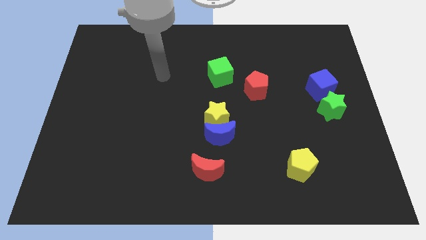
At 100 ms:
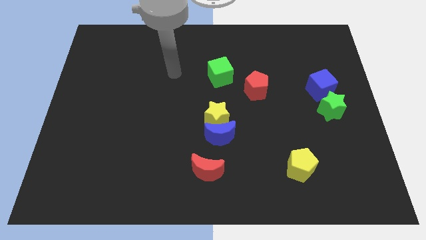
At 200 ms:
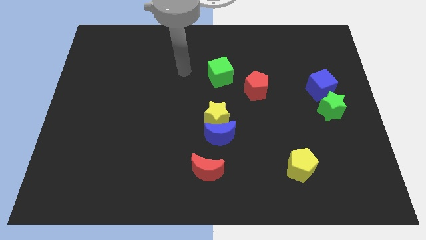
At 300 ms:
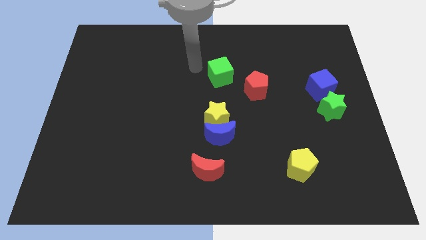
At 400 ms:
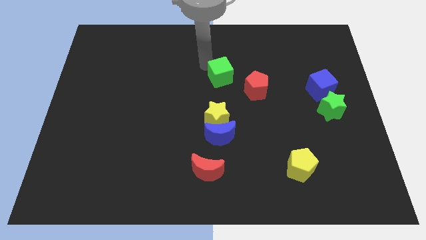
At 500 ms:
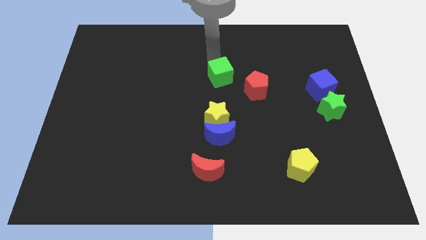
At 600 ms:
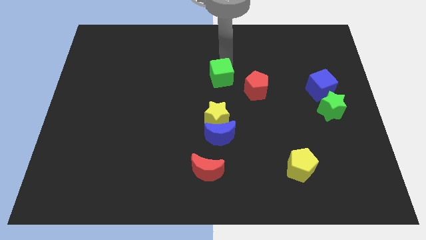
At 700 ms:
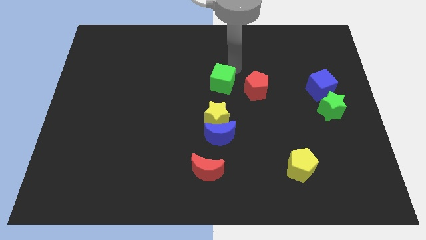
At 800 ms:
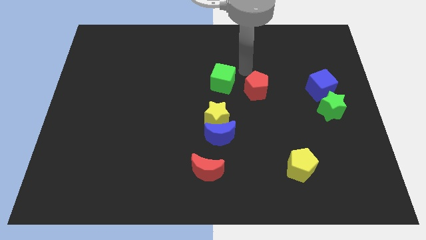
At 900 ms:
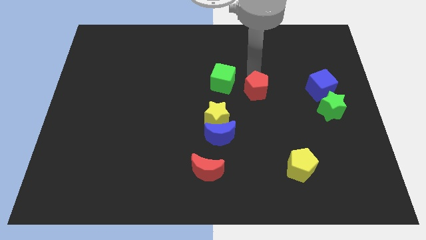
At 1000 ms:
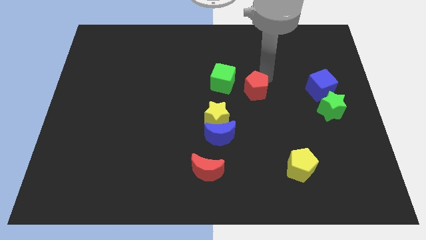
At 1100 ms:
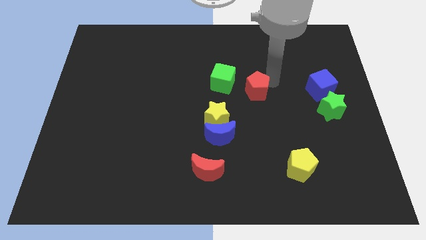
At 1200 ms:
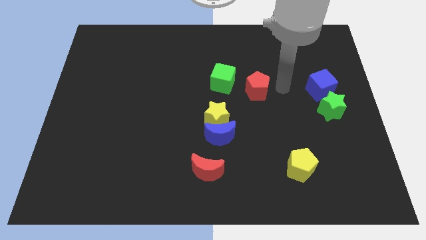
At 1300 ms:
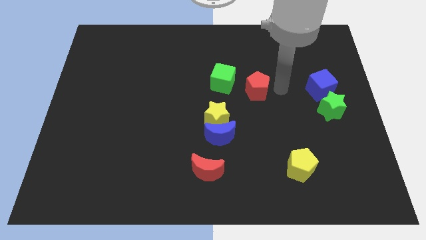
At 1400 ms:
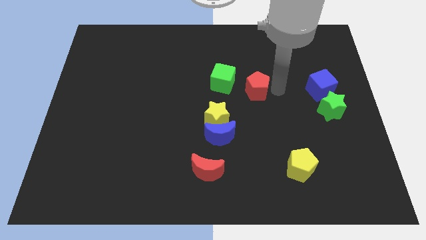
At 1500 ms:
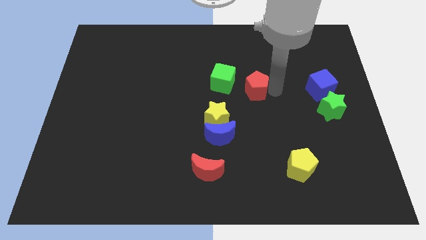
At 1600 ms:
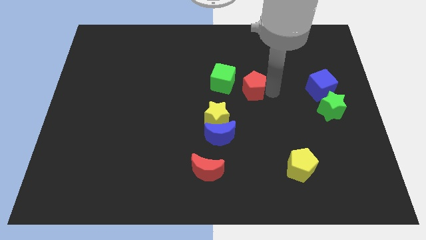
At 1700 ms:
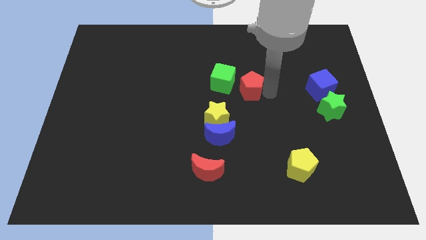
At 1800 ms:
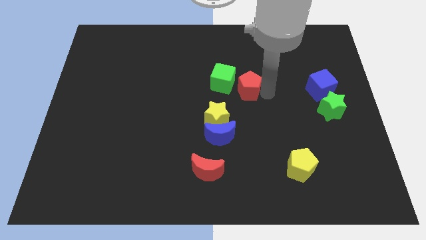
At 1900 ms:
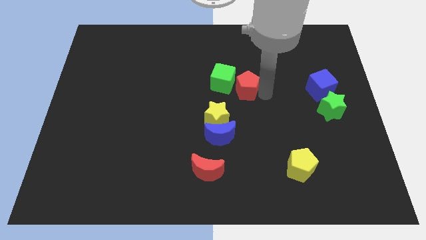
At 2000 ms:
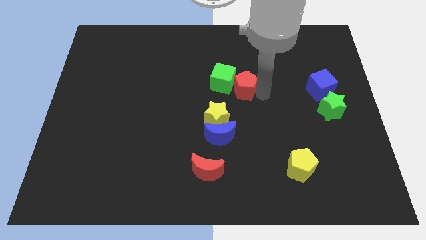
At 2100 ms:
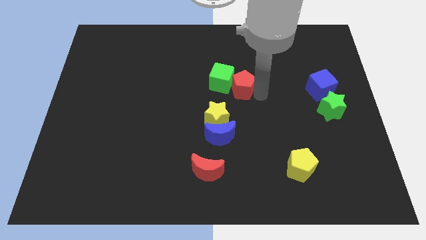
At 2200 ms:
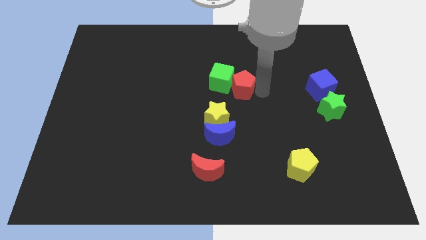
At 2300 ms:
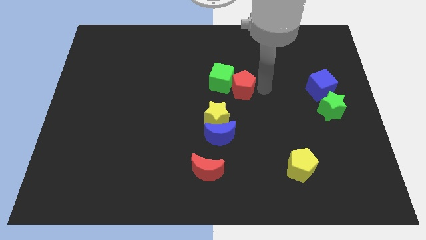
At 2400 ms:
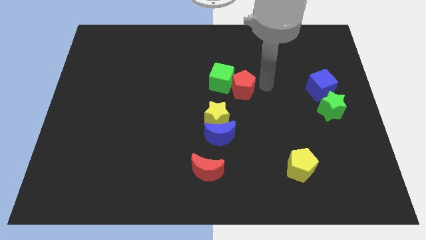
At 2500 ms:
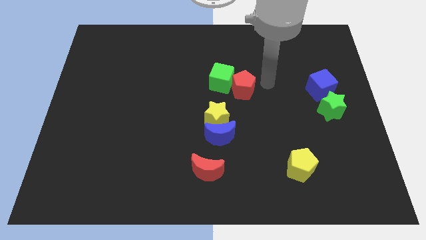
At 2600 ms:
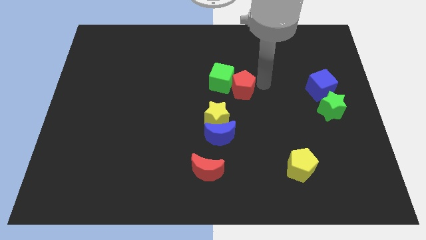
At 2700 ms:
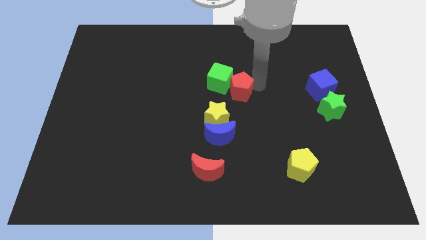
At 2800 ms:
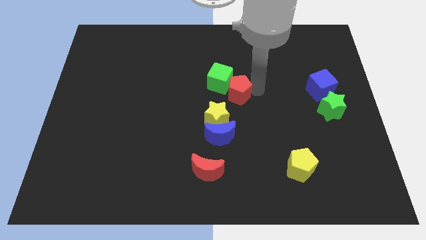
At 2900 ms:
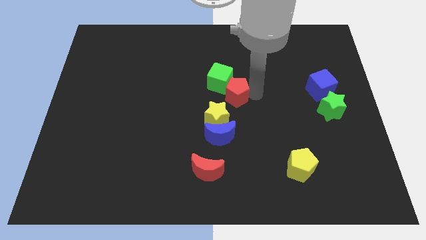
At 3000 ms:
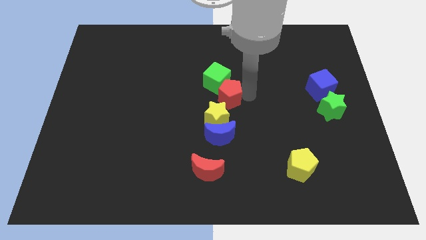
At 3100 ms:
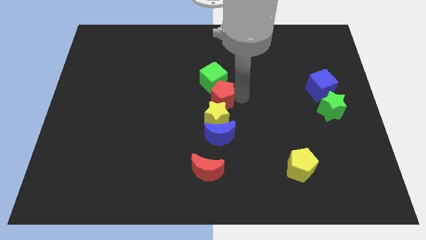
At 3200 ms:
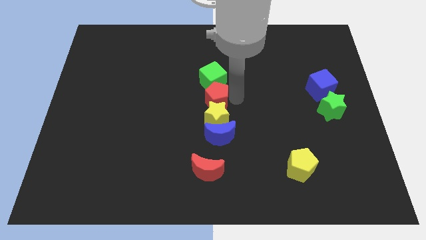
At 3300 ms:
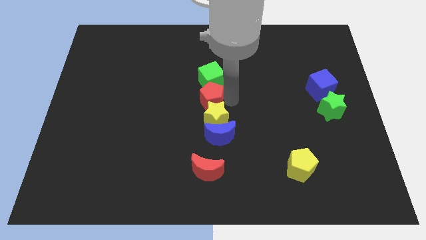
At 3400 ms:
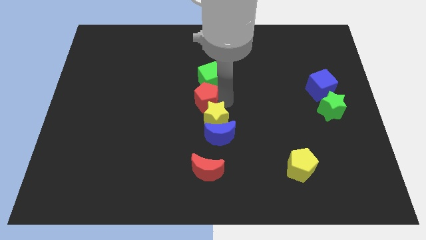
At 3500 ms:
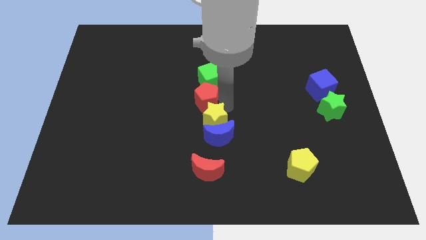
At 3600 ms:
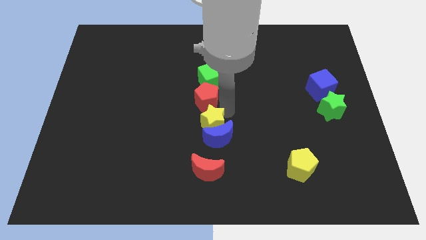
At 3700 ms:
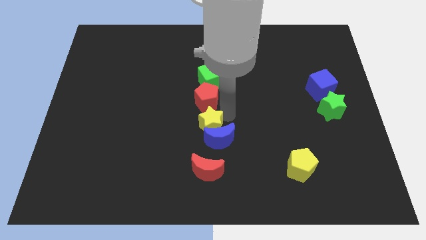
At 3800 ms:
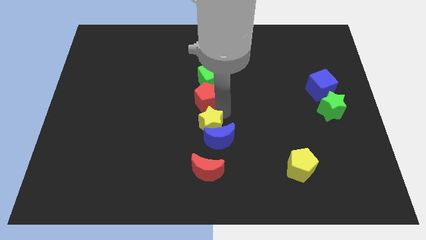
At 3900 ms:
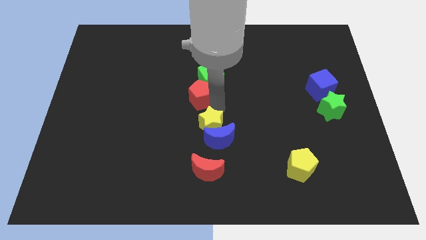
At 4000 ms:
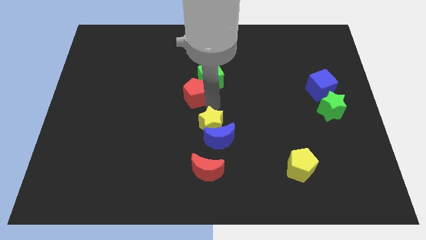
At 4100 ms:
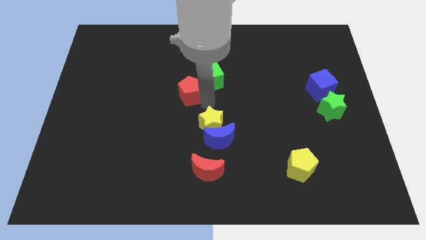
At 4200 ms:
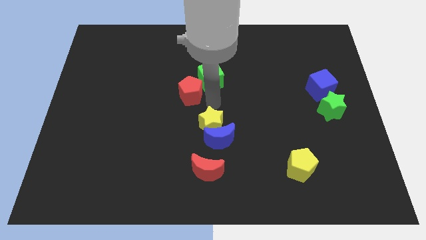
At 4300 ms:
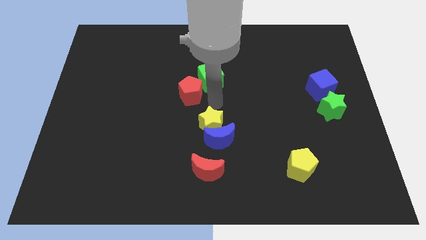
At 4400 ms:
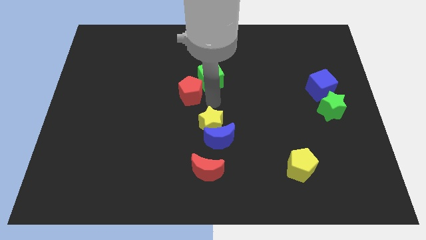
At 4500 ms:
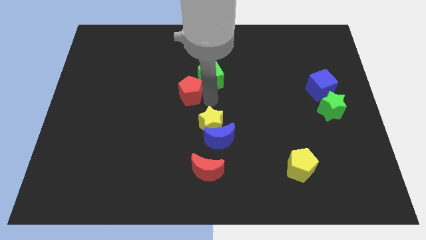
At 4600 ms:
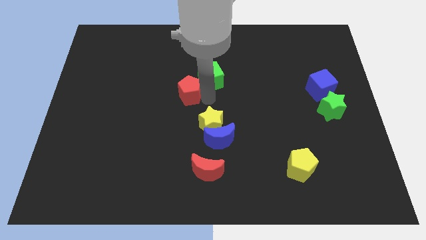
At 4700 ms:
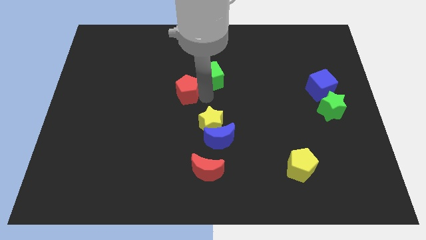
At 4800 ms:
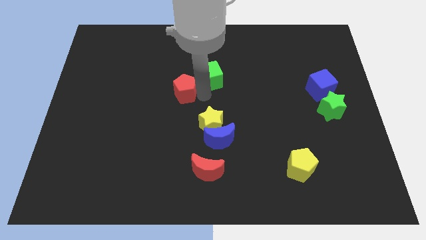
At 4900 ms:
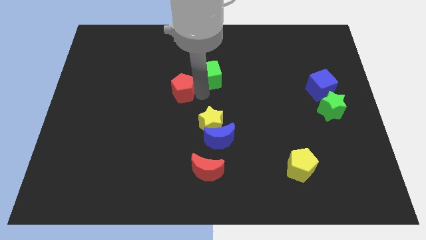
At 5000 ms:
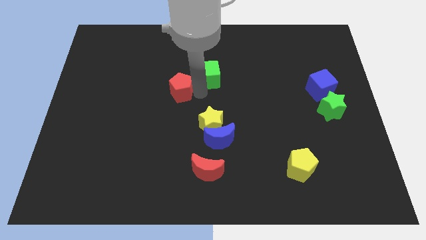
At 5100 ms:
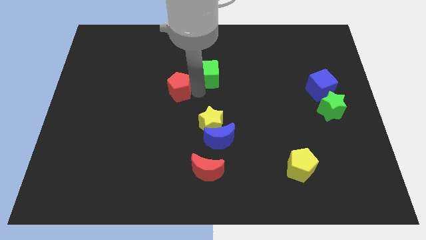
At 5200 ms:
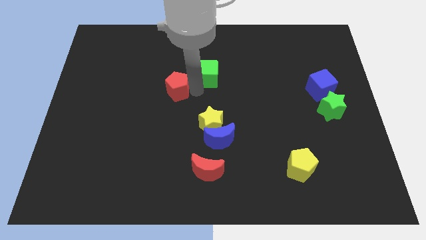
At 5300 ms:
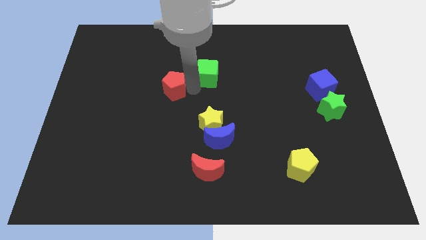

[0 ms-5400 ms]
move the red pentagon left

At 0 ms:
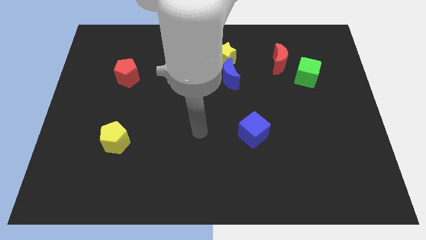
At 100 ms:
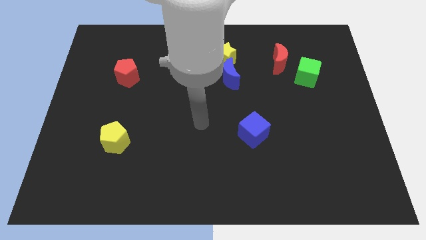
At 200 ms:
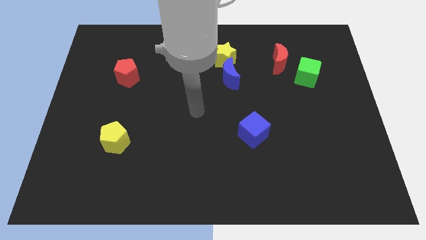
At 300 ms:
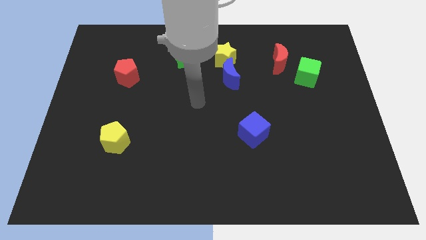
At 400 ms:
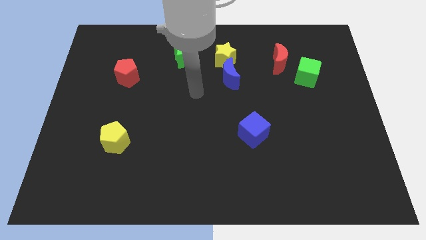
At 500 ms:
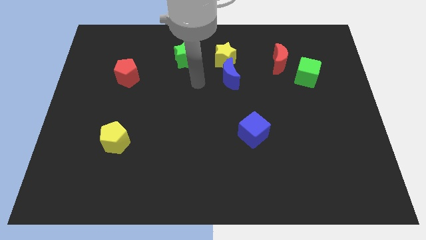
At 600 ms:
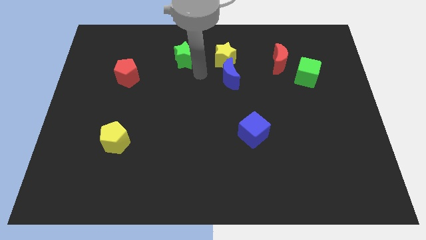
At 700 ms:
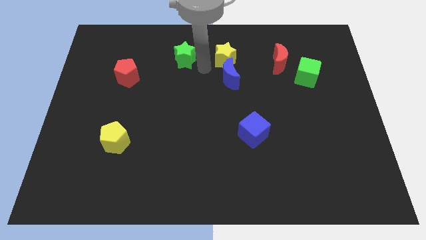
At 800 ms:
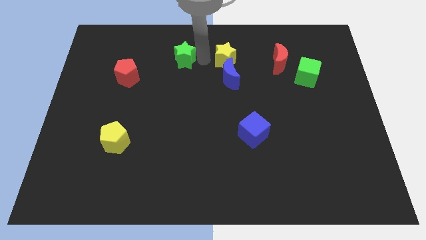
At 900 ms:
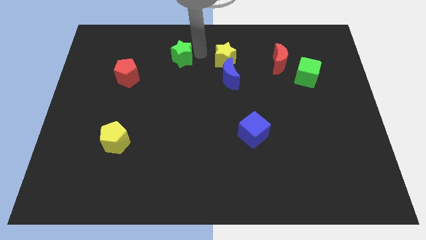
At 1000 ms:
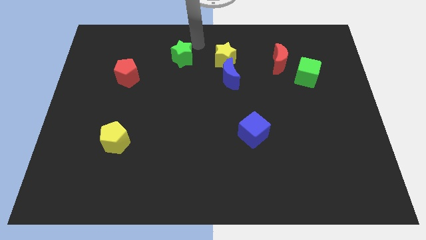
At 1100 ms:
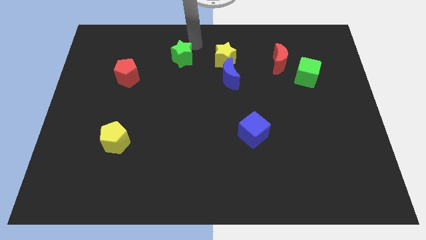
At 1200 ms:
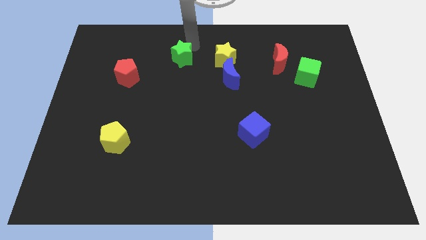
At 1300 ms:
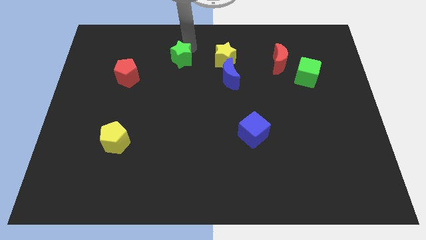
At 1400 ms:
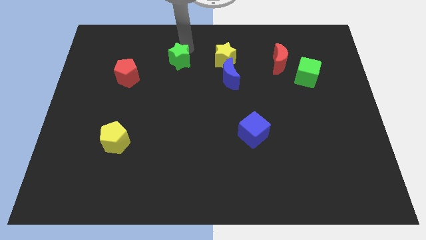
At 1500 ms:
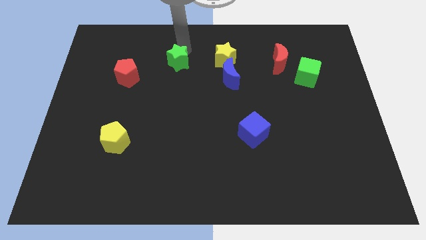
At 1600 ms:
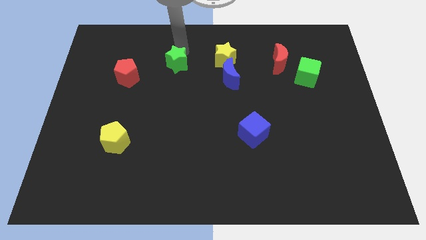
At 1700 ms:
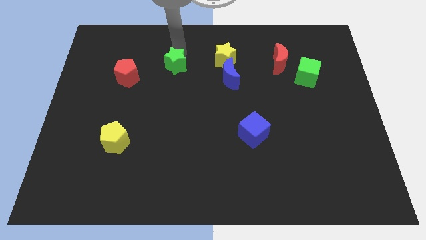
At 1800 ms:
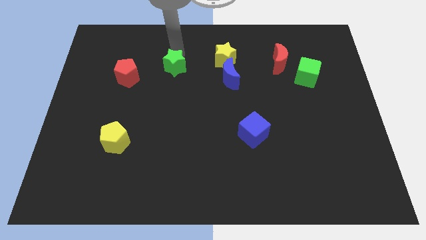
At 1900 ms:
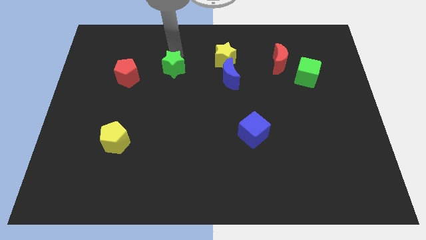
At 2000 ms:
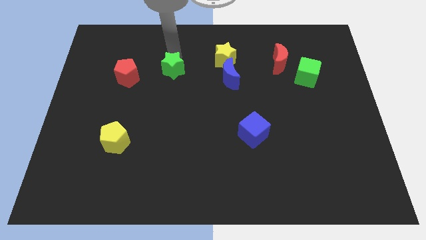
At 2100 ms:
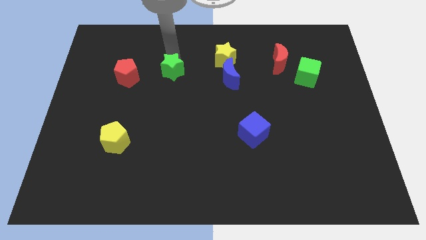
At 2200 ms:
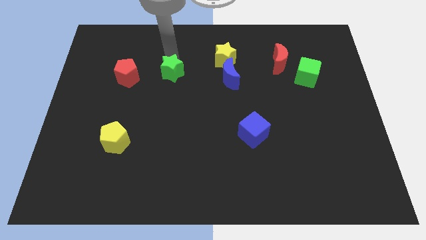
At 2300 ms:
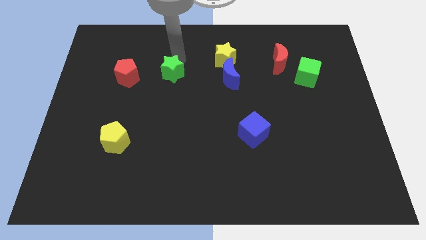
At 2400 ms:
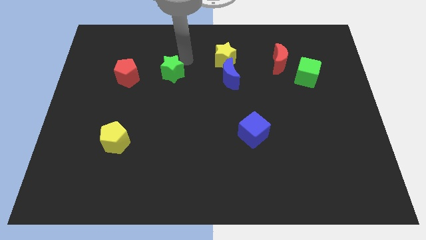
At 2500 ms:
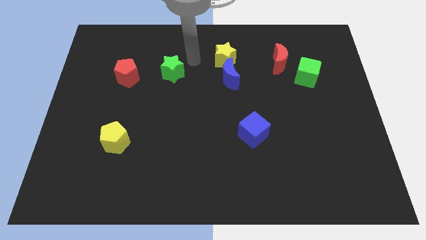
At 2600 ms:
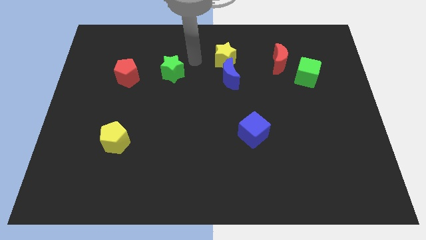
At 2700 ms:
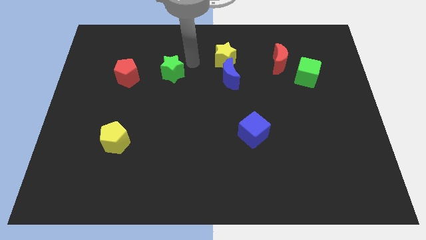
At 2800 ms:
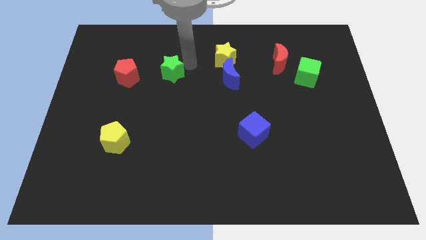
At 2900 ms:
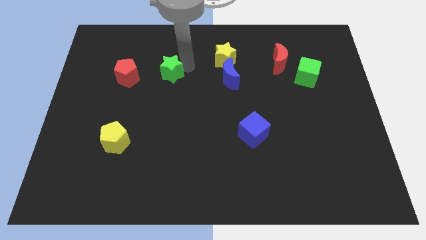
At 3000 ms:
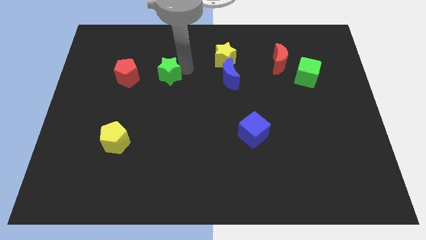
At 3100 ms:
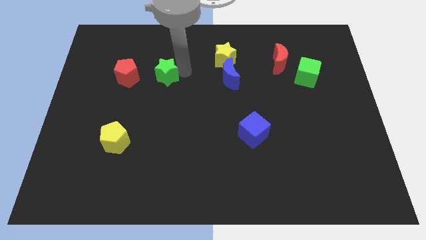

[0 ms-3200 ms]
slide the green star a little bit down and then left
